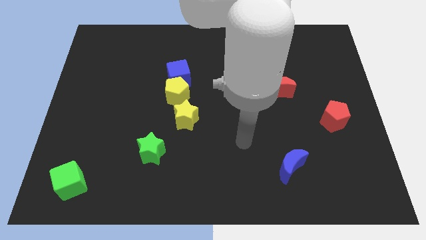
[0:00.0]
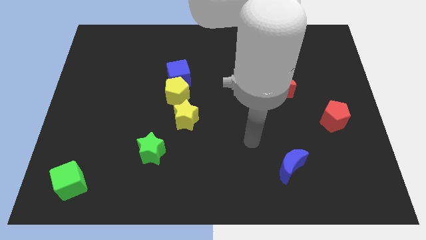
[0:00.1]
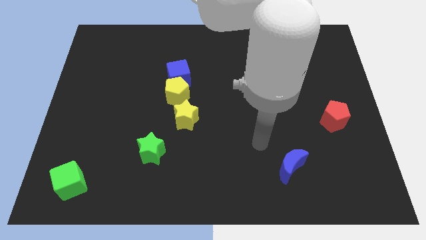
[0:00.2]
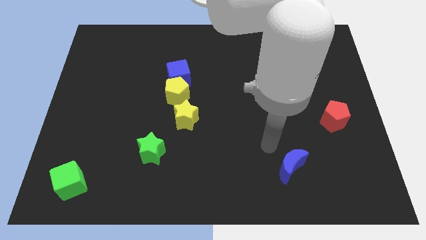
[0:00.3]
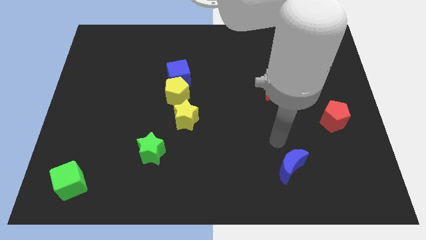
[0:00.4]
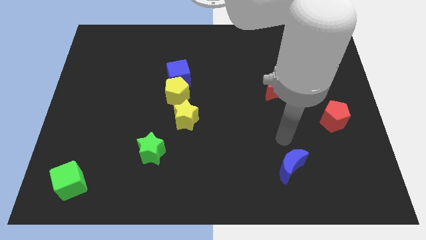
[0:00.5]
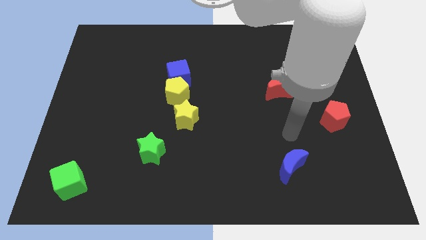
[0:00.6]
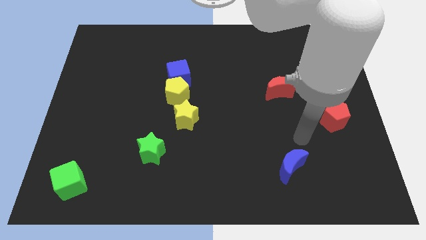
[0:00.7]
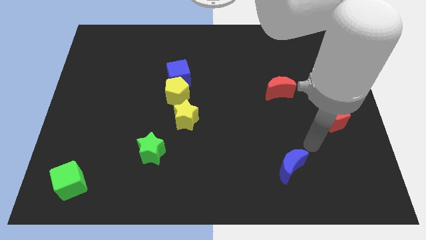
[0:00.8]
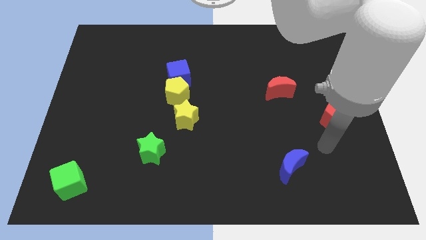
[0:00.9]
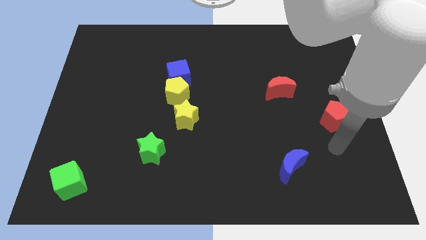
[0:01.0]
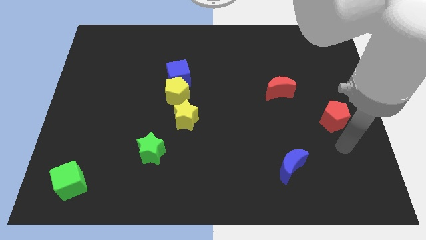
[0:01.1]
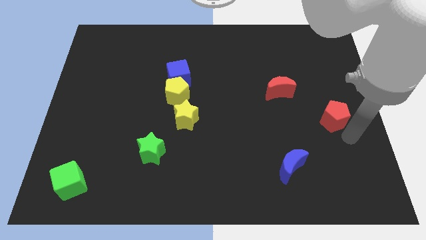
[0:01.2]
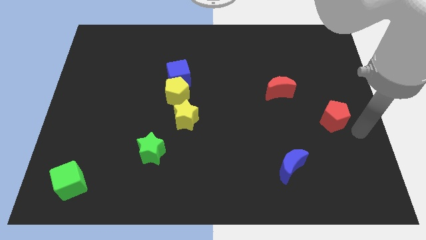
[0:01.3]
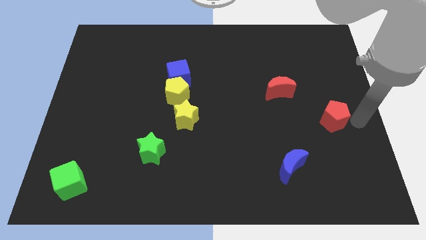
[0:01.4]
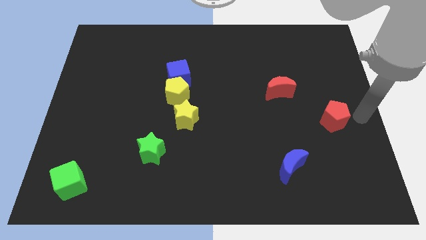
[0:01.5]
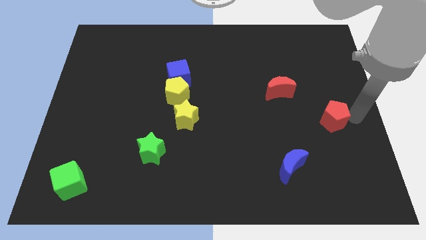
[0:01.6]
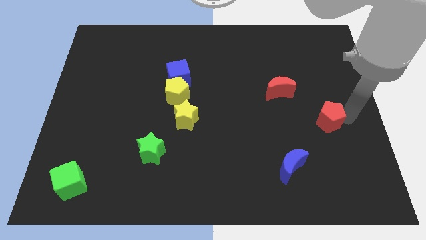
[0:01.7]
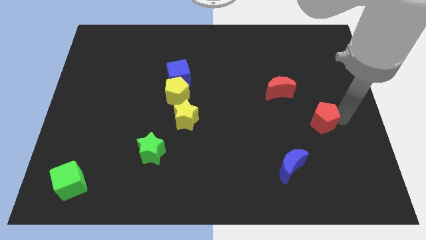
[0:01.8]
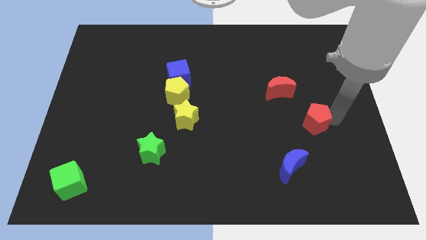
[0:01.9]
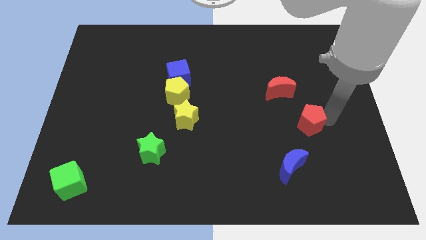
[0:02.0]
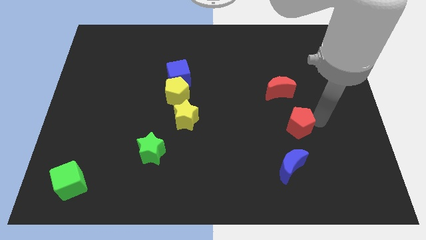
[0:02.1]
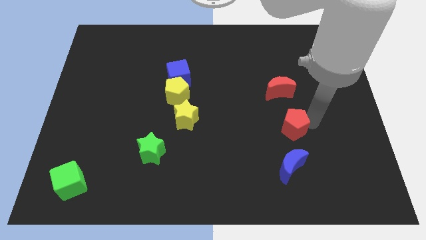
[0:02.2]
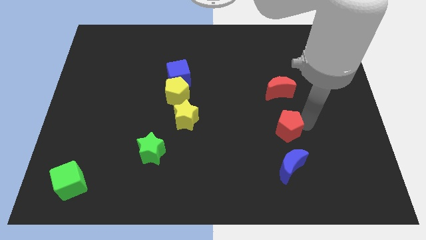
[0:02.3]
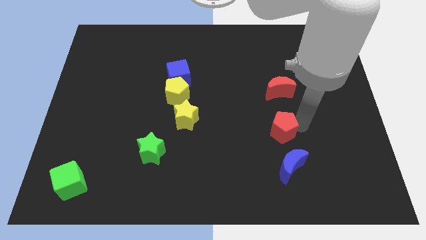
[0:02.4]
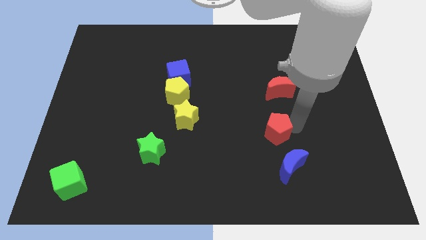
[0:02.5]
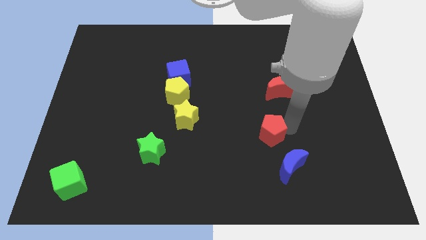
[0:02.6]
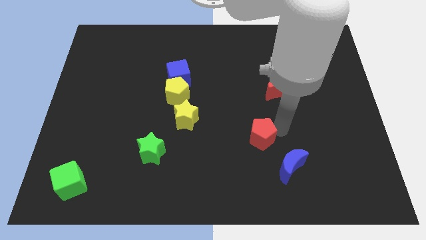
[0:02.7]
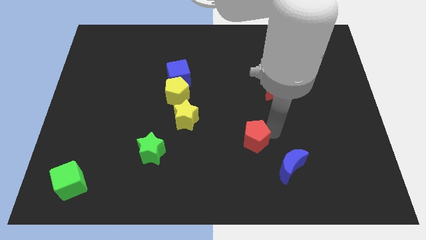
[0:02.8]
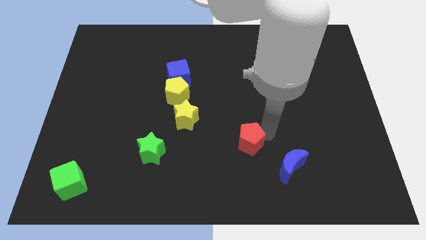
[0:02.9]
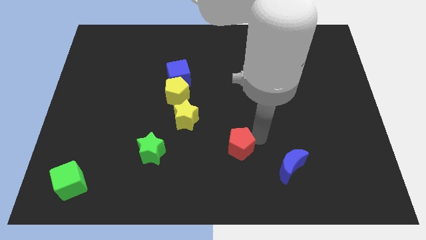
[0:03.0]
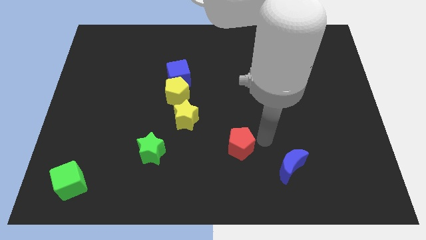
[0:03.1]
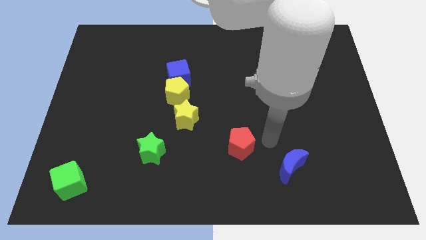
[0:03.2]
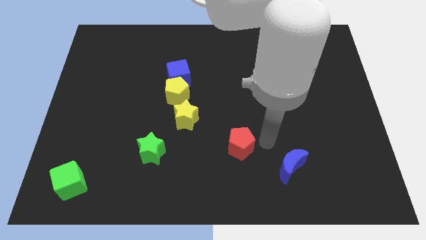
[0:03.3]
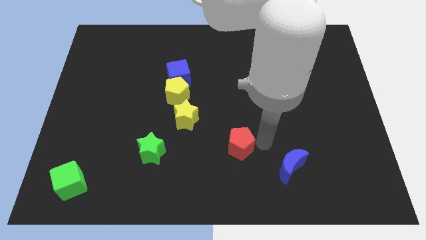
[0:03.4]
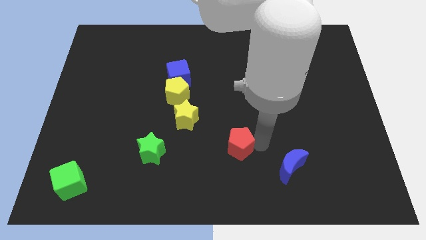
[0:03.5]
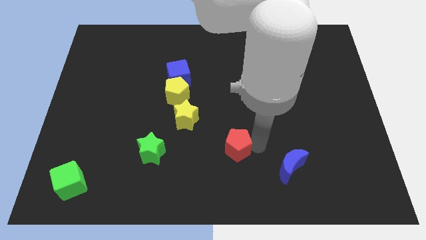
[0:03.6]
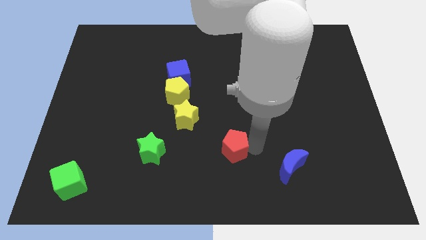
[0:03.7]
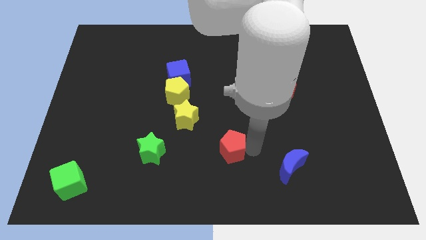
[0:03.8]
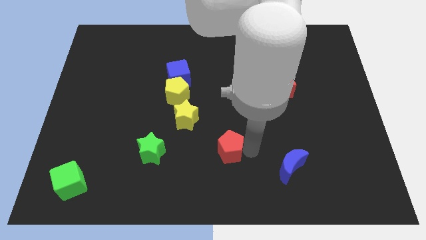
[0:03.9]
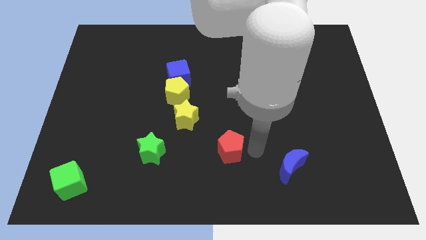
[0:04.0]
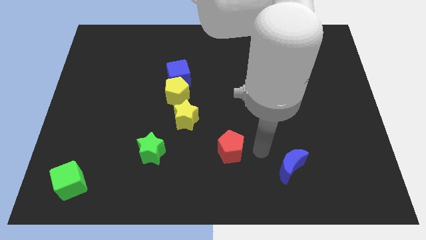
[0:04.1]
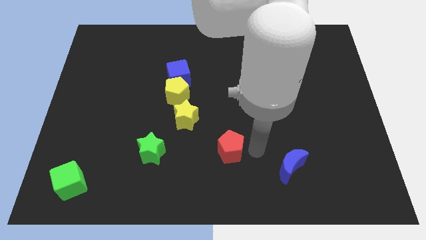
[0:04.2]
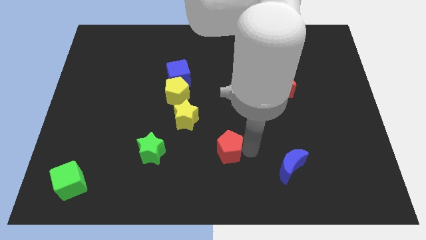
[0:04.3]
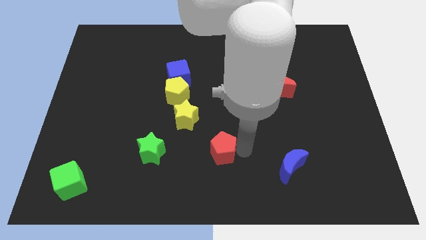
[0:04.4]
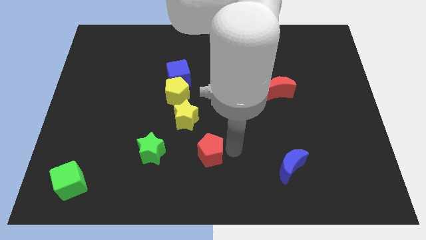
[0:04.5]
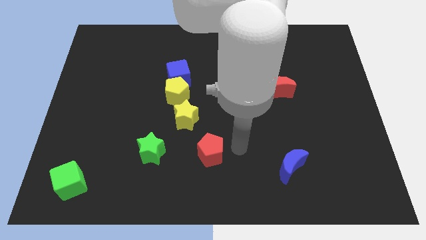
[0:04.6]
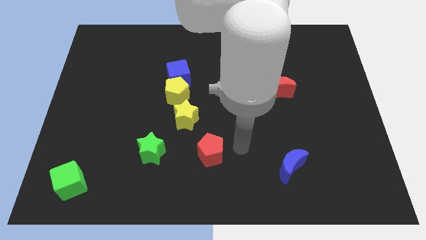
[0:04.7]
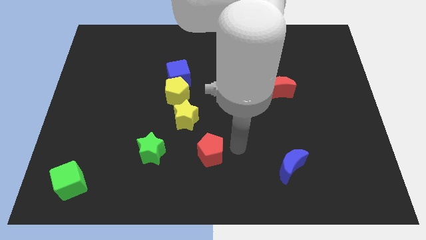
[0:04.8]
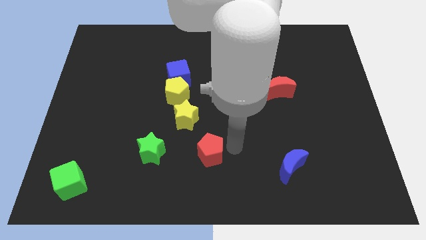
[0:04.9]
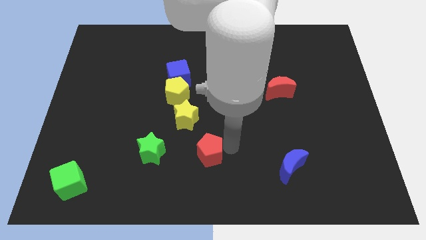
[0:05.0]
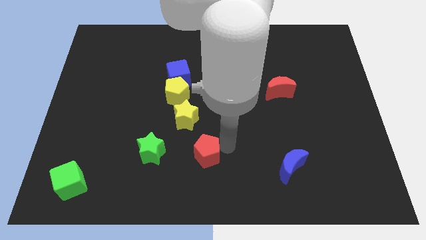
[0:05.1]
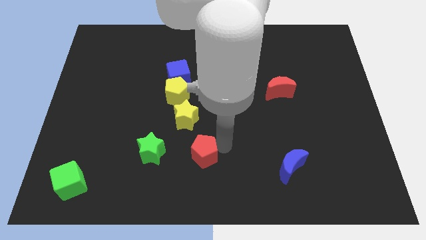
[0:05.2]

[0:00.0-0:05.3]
move the red pentagon below the yellow star

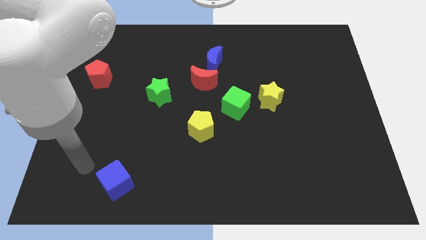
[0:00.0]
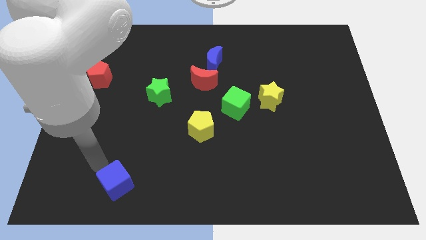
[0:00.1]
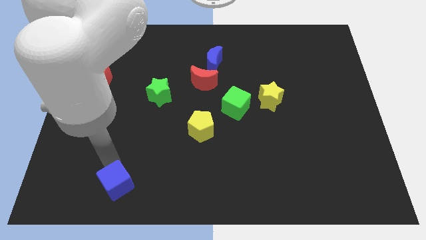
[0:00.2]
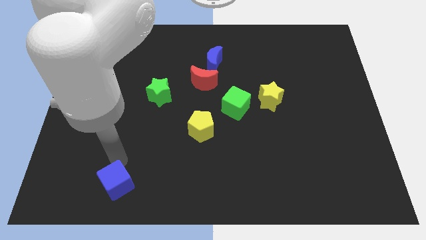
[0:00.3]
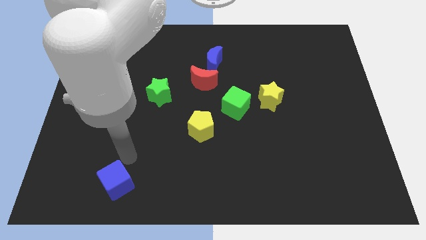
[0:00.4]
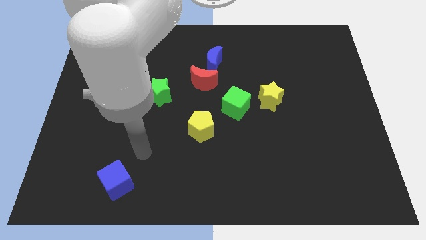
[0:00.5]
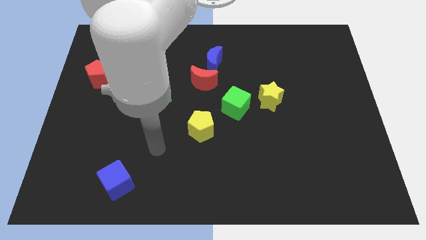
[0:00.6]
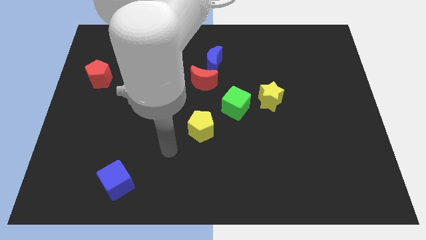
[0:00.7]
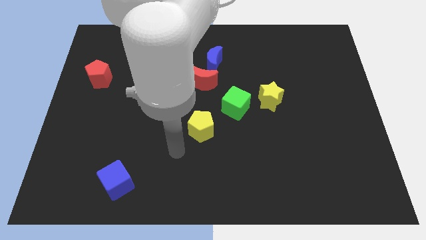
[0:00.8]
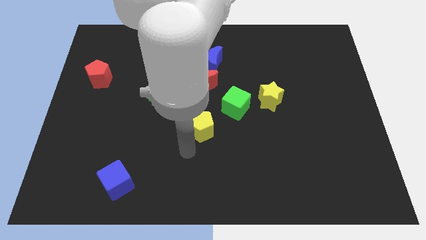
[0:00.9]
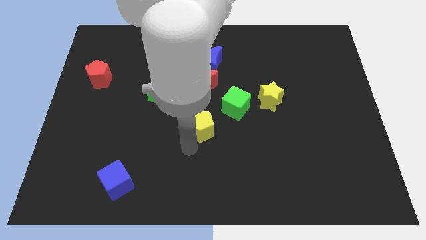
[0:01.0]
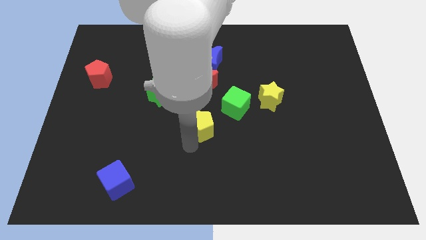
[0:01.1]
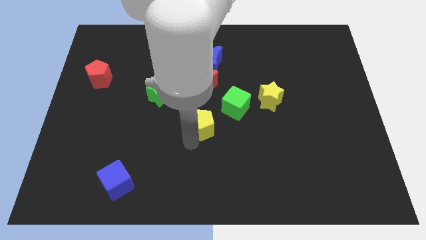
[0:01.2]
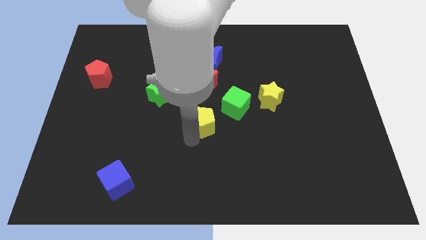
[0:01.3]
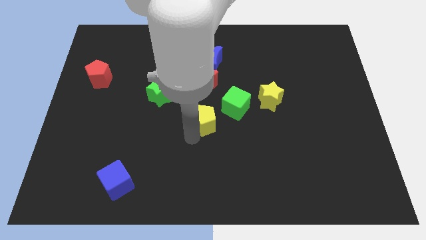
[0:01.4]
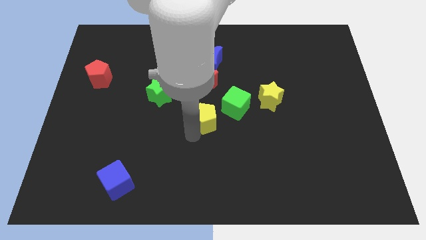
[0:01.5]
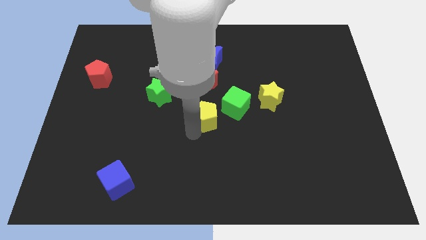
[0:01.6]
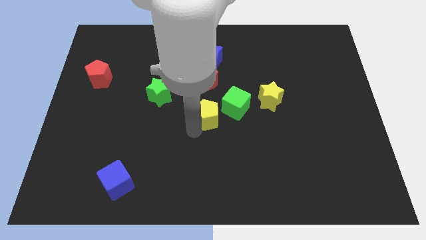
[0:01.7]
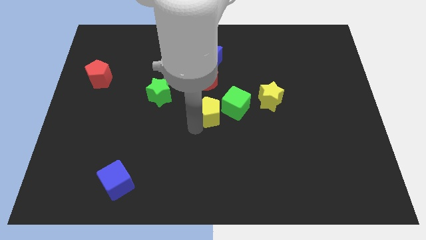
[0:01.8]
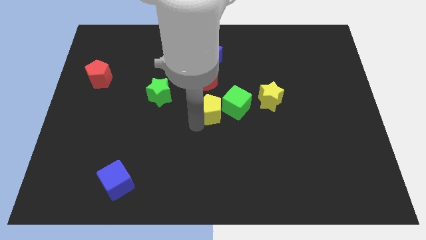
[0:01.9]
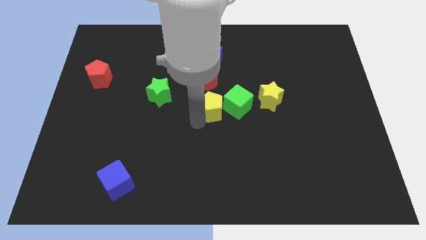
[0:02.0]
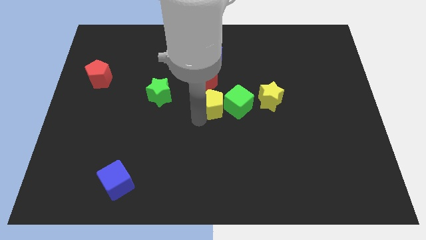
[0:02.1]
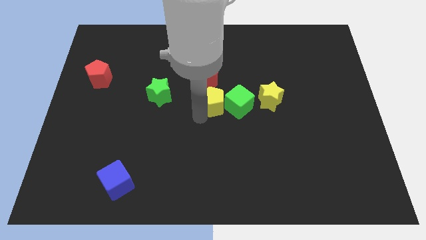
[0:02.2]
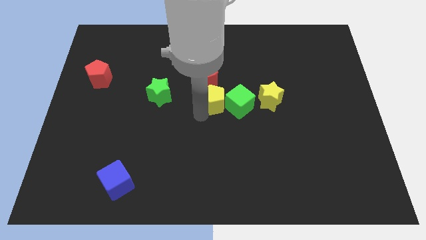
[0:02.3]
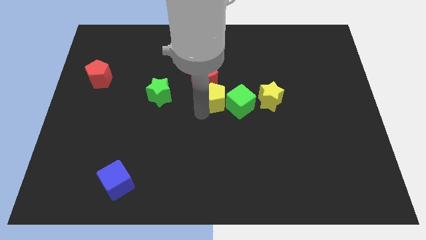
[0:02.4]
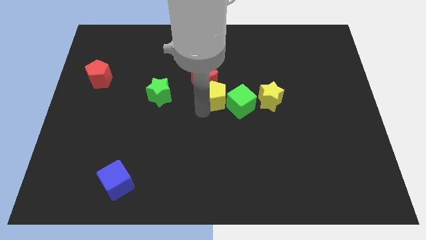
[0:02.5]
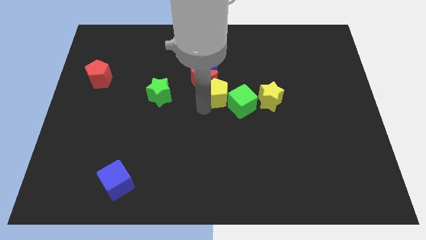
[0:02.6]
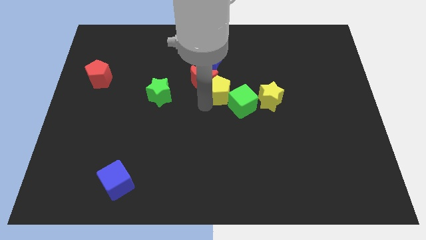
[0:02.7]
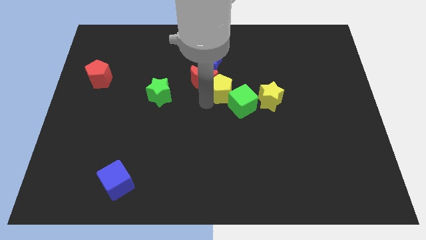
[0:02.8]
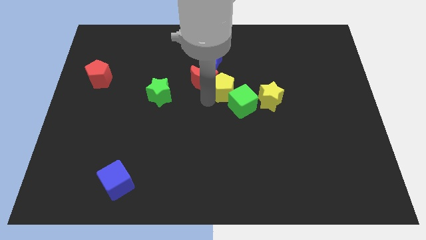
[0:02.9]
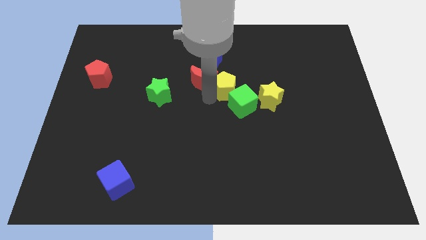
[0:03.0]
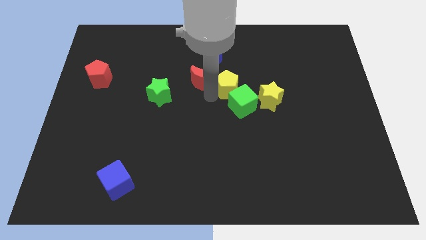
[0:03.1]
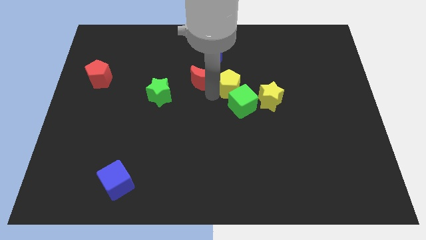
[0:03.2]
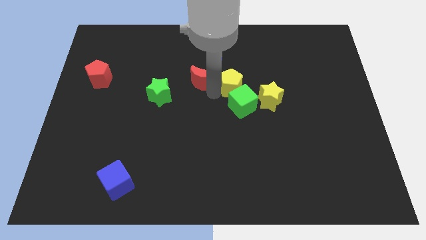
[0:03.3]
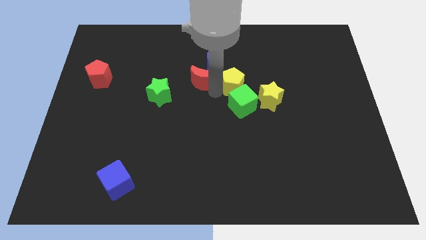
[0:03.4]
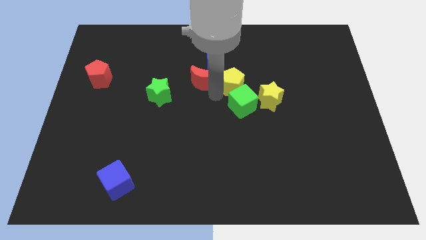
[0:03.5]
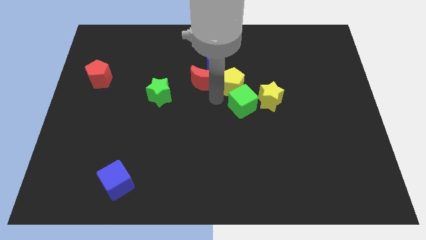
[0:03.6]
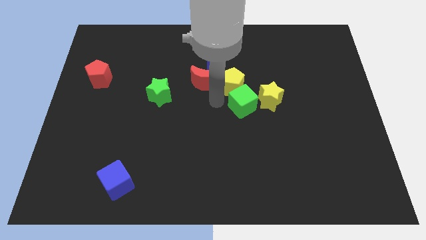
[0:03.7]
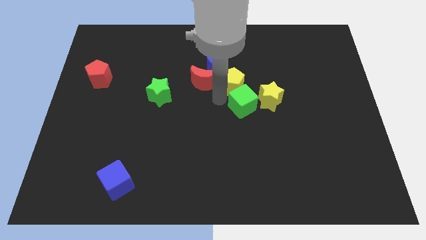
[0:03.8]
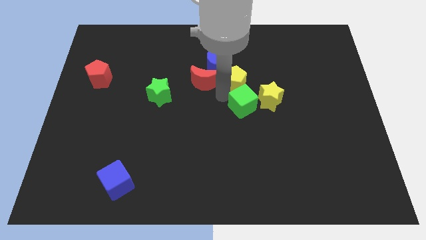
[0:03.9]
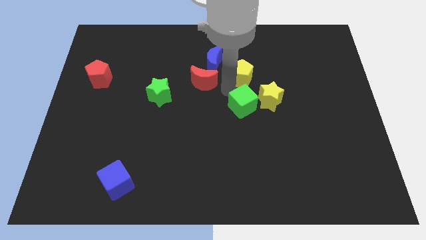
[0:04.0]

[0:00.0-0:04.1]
move the yellow pentagon to the right side of the blue moon
